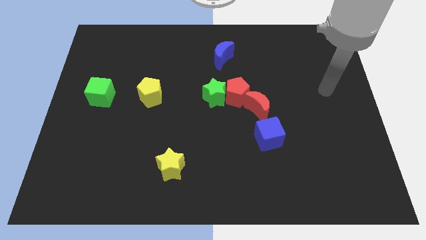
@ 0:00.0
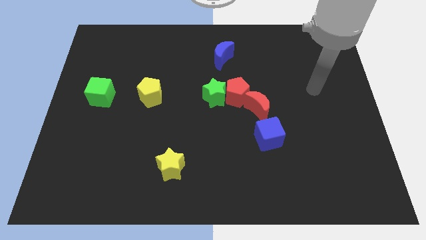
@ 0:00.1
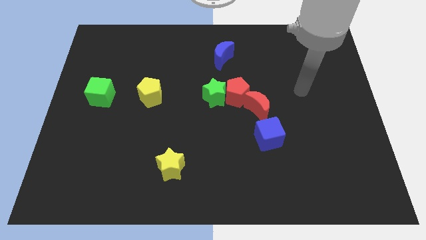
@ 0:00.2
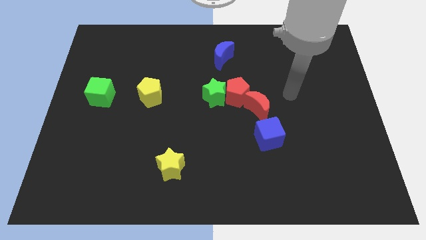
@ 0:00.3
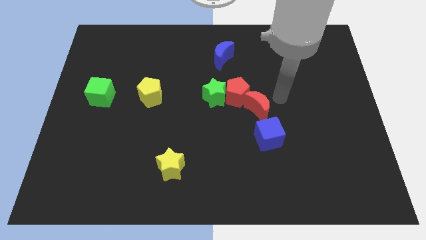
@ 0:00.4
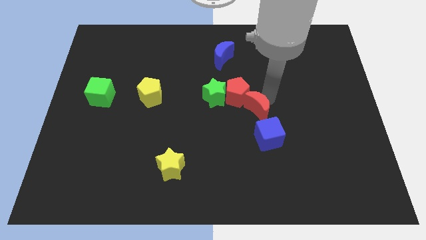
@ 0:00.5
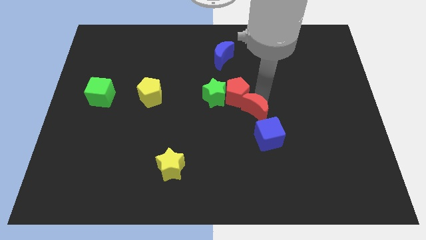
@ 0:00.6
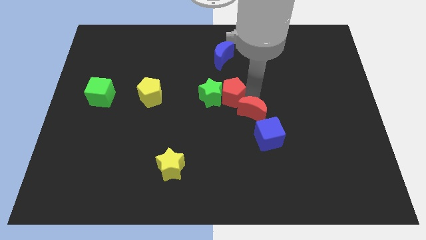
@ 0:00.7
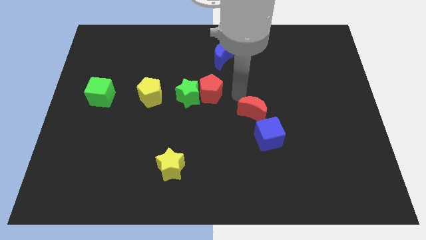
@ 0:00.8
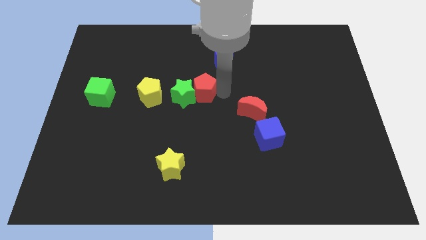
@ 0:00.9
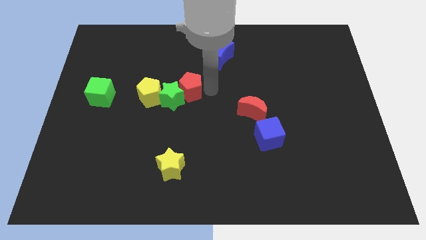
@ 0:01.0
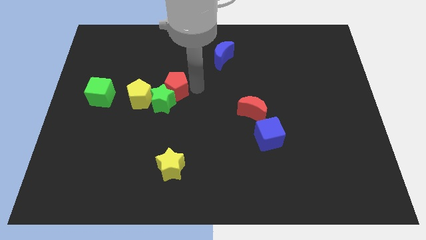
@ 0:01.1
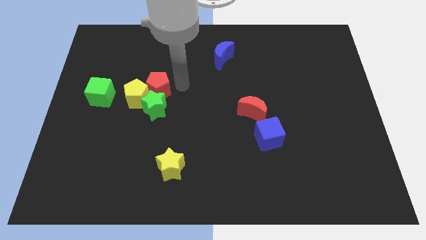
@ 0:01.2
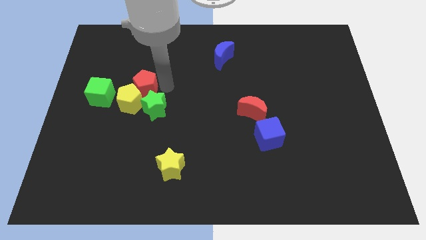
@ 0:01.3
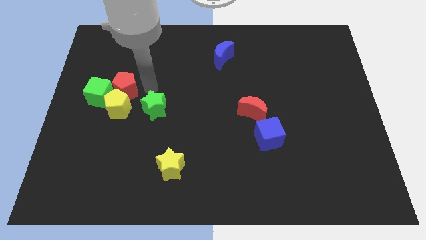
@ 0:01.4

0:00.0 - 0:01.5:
separate the green star from the red pentagon

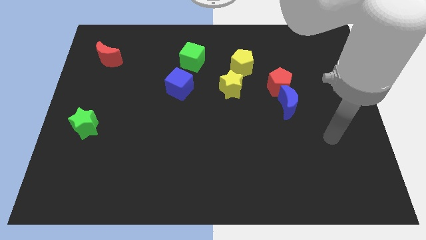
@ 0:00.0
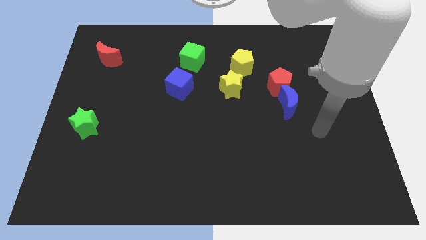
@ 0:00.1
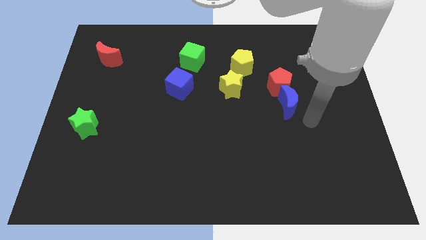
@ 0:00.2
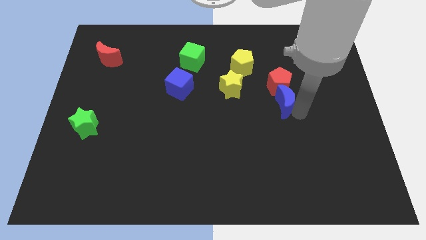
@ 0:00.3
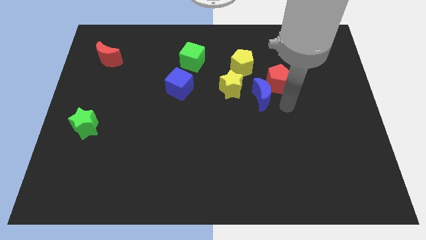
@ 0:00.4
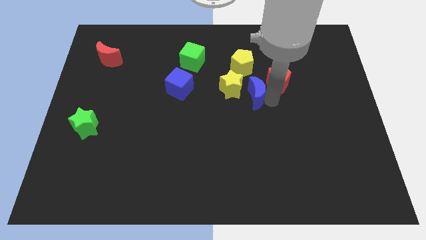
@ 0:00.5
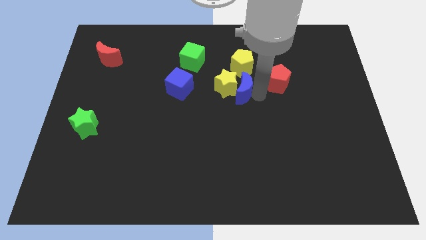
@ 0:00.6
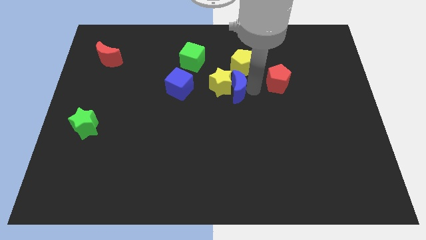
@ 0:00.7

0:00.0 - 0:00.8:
pull the red pentagon apart from the blue moon

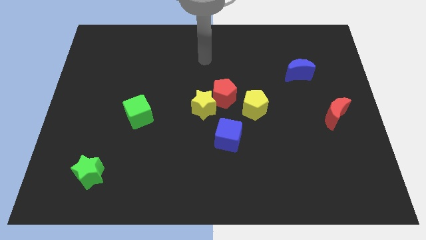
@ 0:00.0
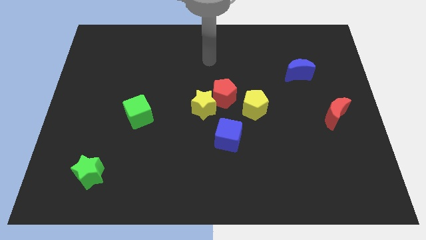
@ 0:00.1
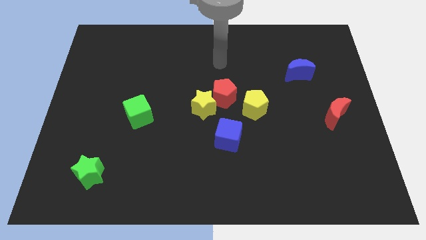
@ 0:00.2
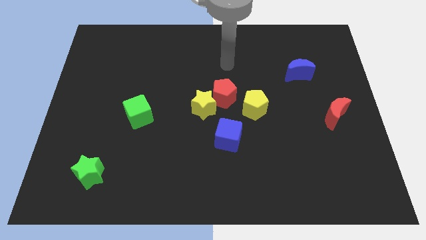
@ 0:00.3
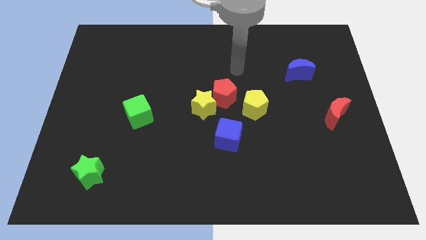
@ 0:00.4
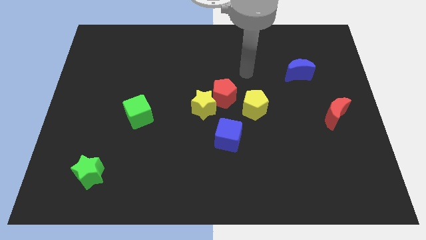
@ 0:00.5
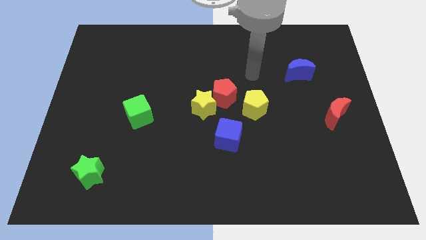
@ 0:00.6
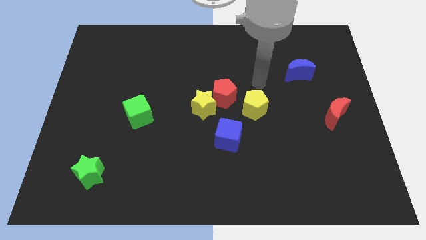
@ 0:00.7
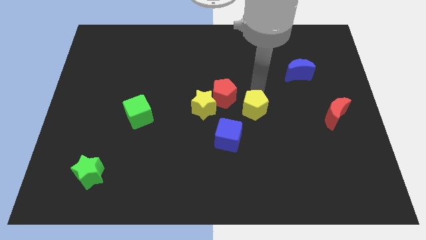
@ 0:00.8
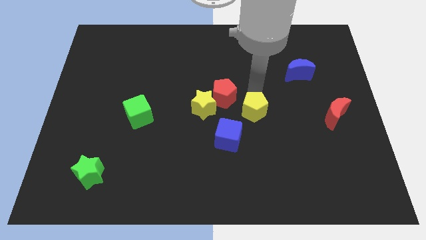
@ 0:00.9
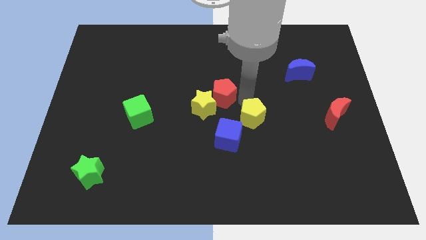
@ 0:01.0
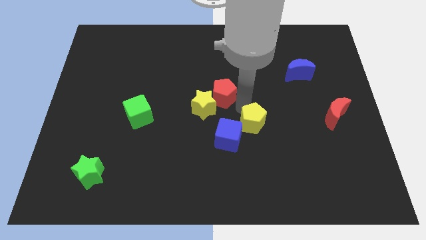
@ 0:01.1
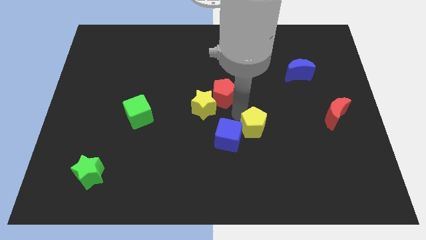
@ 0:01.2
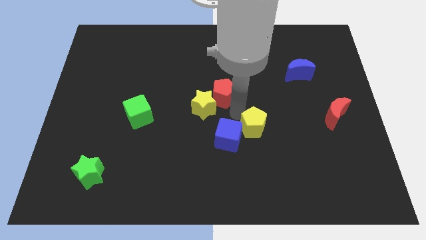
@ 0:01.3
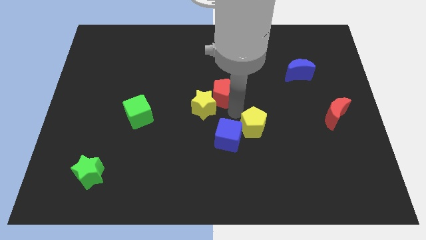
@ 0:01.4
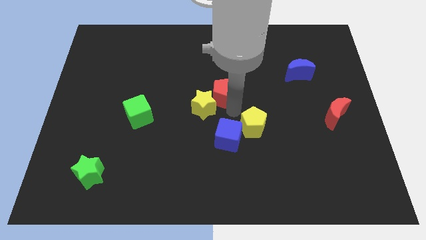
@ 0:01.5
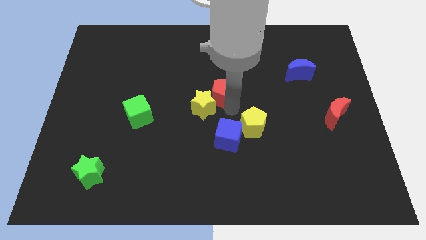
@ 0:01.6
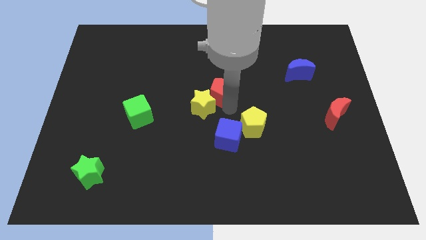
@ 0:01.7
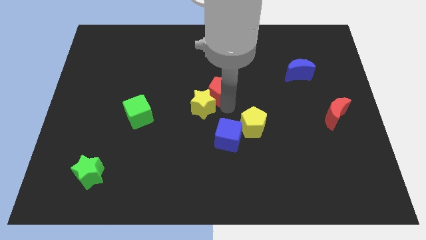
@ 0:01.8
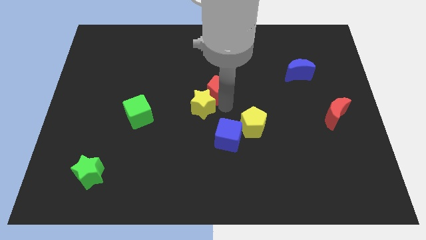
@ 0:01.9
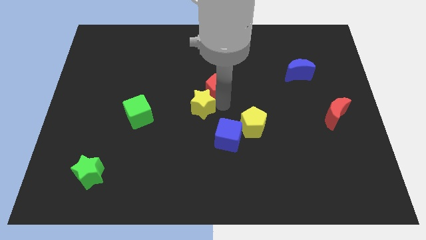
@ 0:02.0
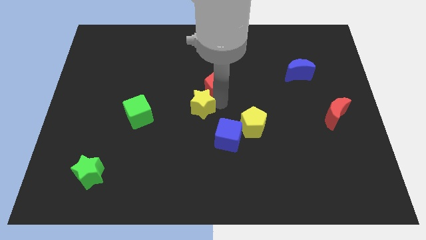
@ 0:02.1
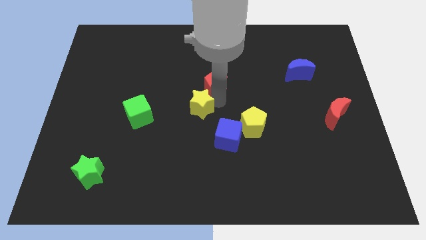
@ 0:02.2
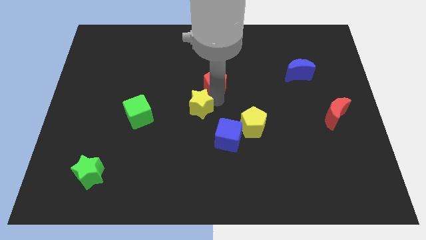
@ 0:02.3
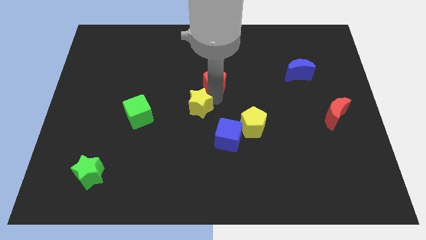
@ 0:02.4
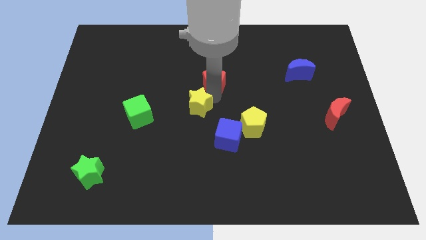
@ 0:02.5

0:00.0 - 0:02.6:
separate the red pentagon from the yellow star and yellow pentagon

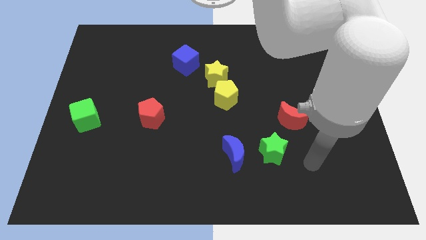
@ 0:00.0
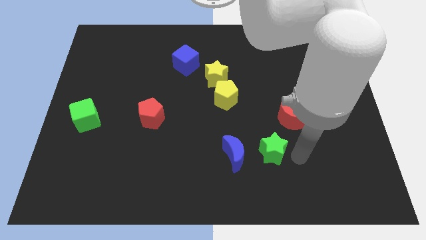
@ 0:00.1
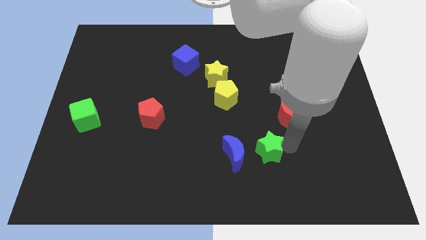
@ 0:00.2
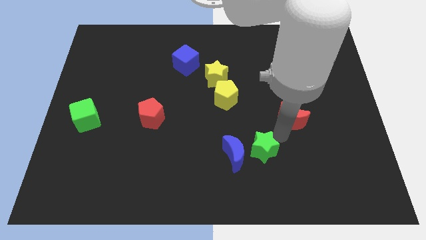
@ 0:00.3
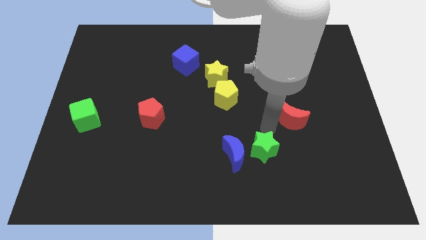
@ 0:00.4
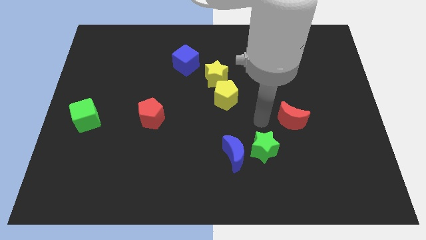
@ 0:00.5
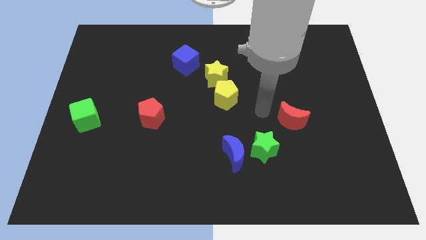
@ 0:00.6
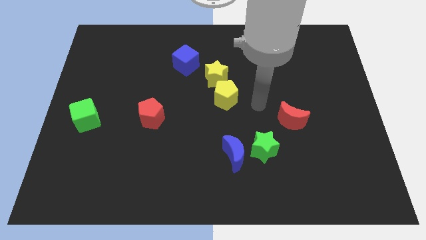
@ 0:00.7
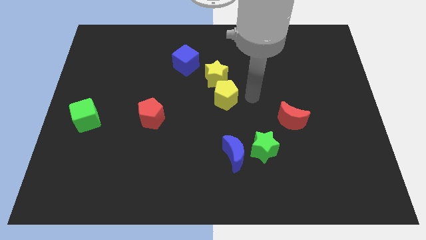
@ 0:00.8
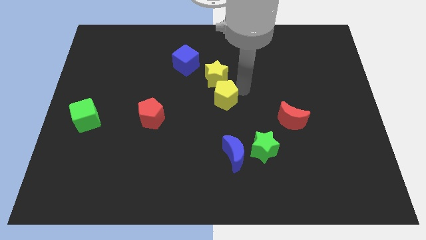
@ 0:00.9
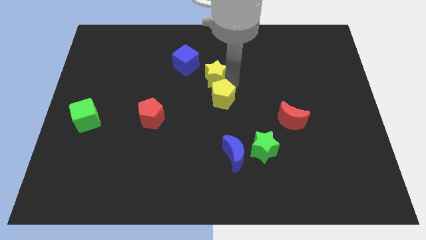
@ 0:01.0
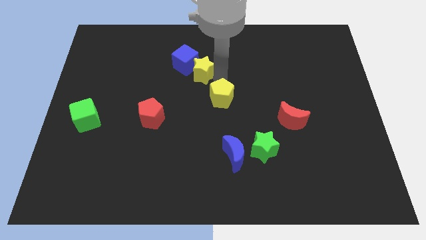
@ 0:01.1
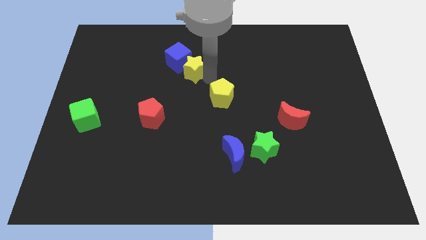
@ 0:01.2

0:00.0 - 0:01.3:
move the yellow pentagon away from the yellow star

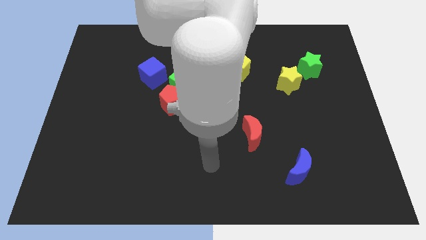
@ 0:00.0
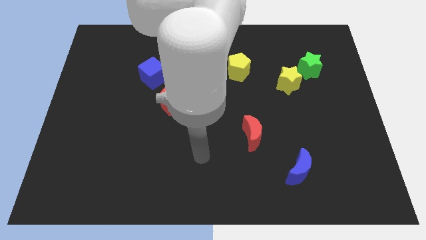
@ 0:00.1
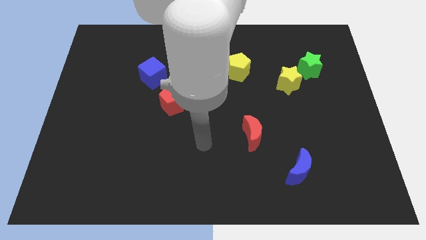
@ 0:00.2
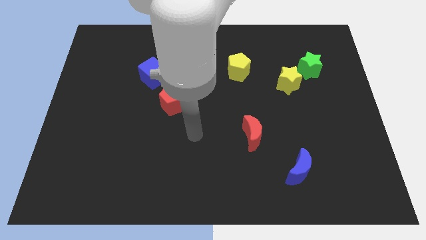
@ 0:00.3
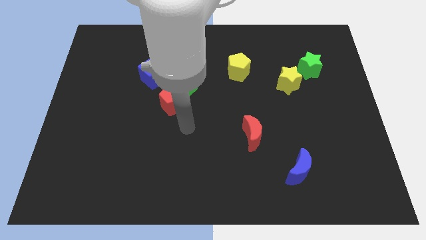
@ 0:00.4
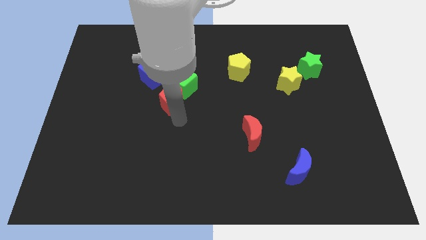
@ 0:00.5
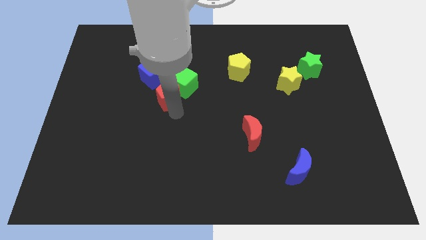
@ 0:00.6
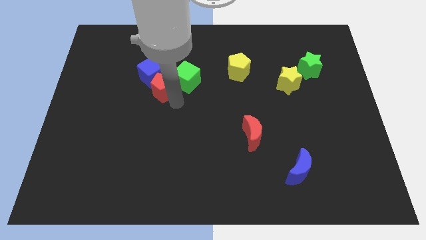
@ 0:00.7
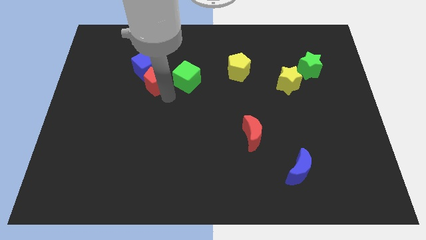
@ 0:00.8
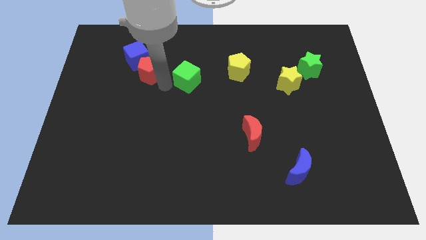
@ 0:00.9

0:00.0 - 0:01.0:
separate the green cube from the red pentagon and blue cube

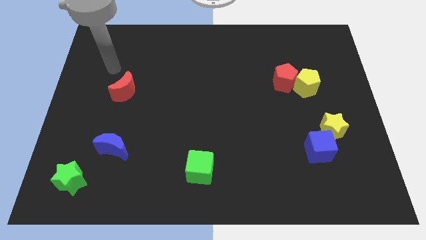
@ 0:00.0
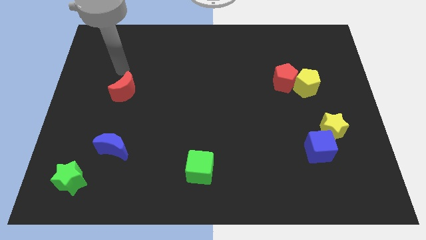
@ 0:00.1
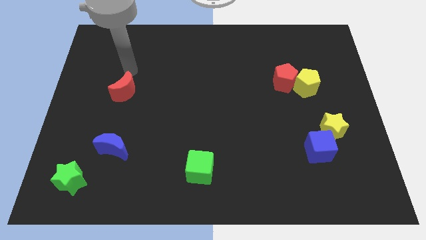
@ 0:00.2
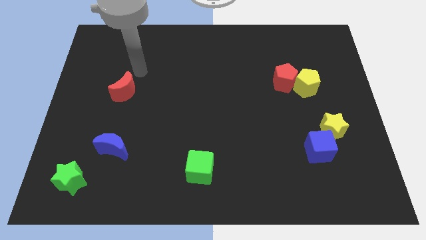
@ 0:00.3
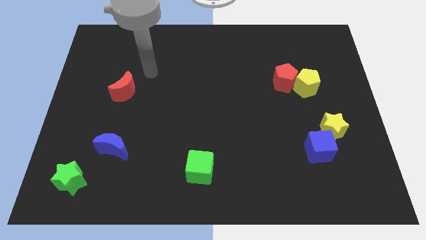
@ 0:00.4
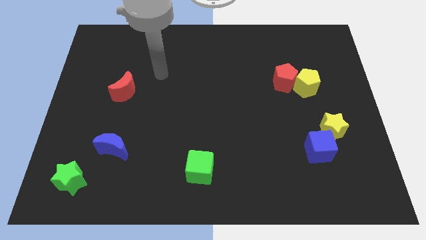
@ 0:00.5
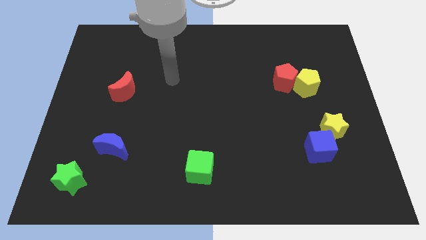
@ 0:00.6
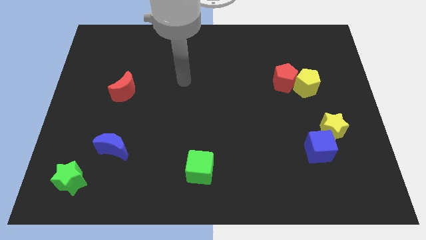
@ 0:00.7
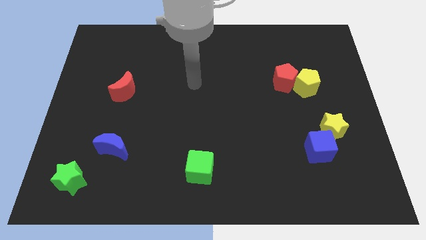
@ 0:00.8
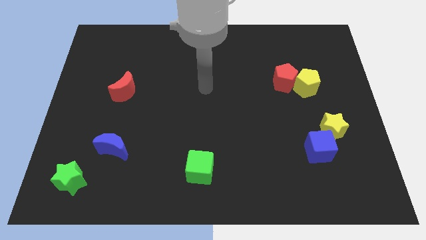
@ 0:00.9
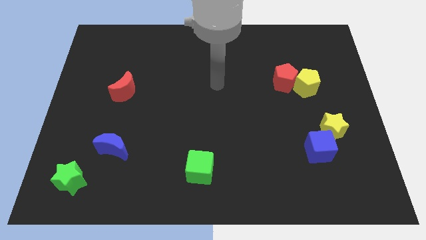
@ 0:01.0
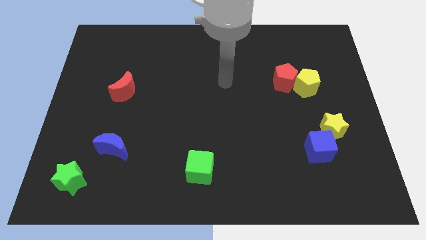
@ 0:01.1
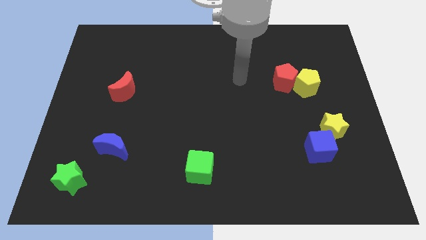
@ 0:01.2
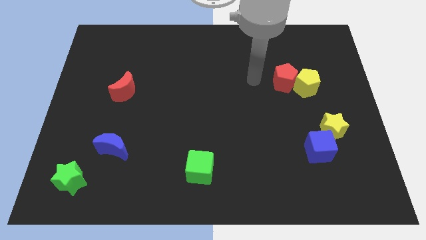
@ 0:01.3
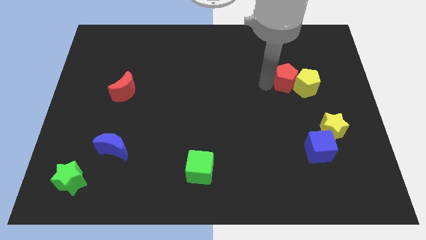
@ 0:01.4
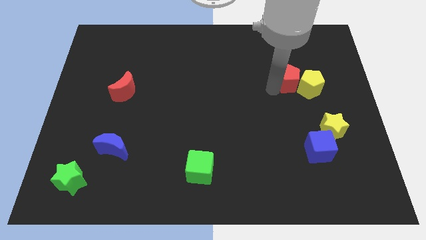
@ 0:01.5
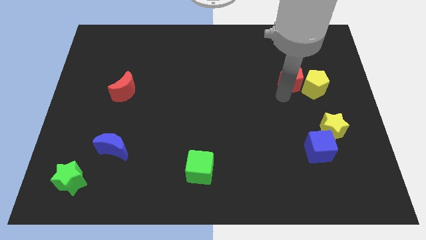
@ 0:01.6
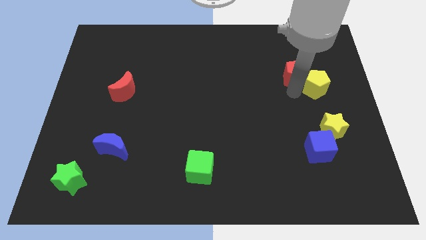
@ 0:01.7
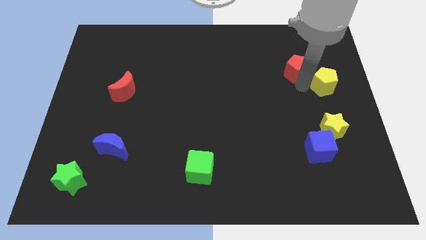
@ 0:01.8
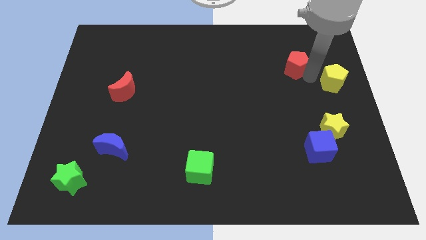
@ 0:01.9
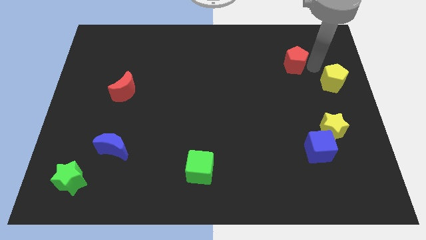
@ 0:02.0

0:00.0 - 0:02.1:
pull the red pentagon apart from the yellow pentagon

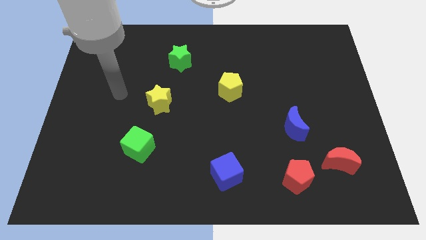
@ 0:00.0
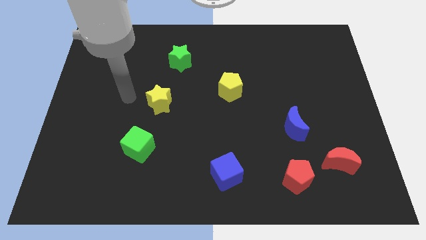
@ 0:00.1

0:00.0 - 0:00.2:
pull the red moon apart from the red pentagon
